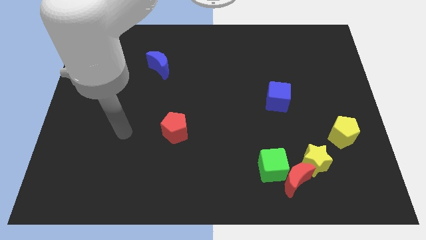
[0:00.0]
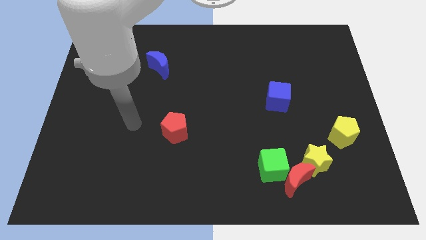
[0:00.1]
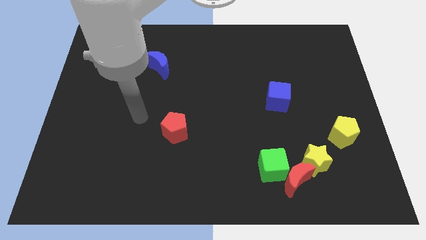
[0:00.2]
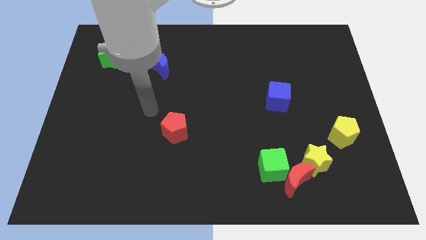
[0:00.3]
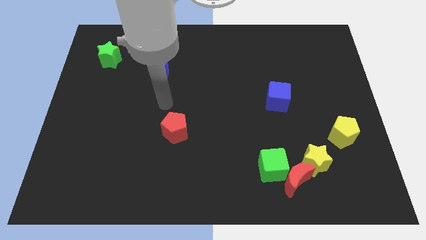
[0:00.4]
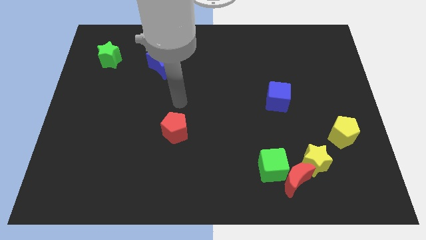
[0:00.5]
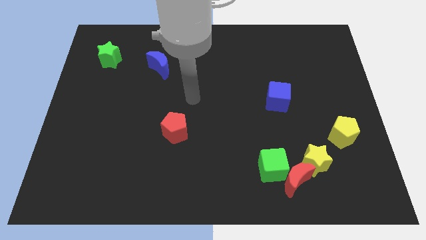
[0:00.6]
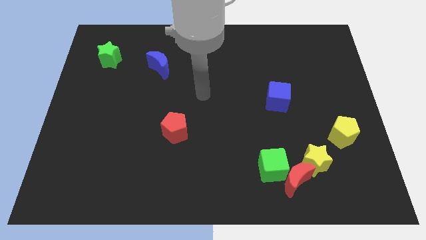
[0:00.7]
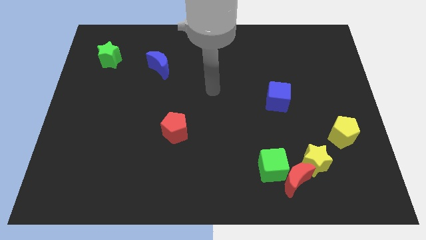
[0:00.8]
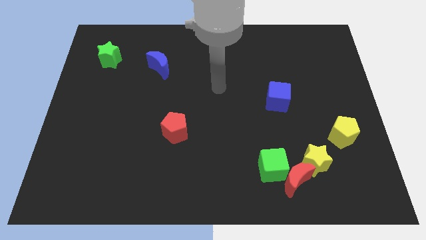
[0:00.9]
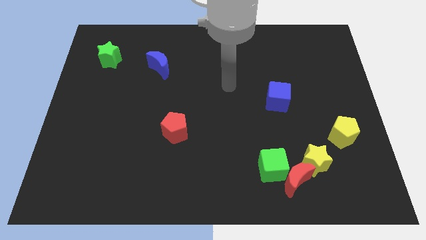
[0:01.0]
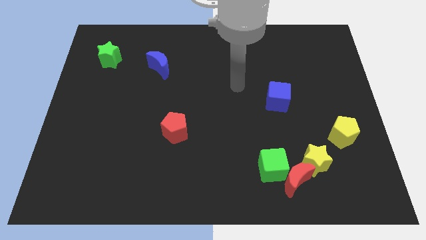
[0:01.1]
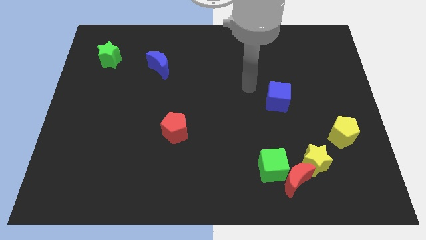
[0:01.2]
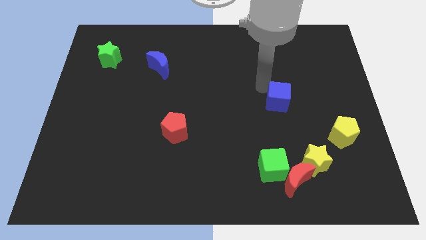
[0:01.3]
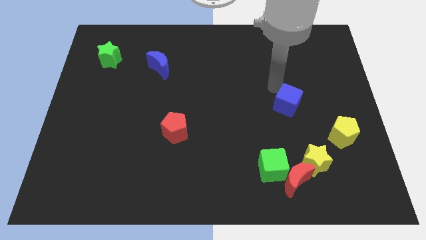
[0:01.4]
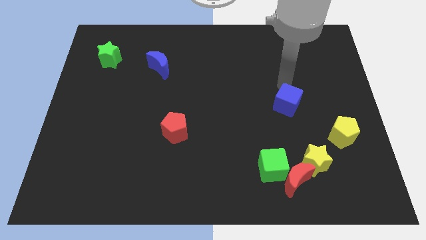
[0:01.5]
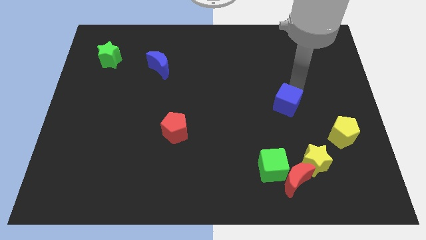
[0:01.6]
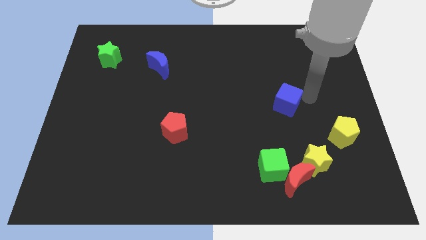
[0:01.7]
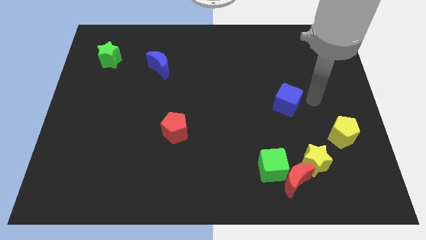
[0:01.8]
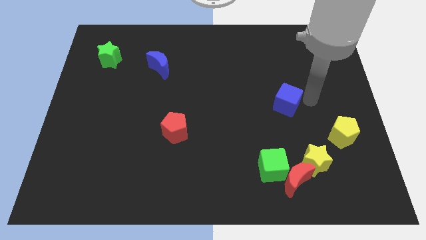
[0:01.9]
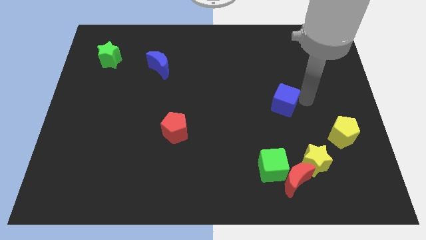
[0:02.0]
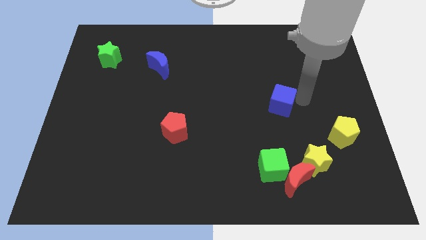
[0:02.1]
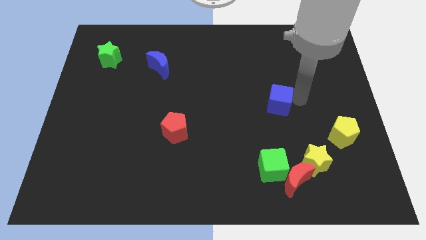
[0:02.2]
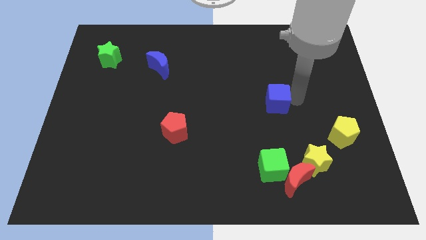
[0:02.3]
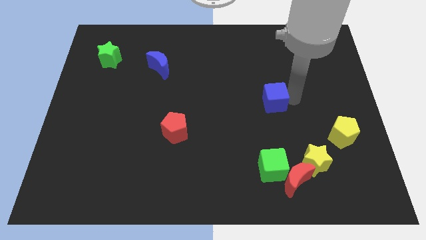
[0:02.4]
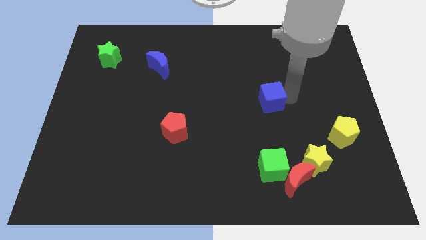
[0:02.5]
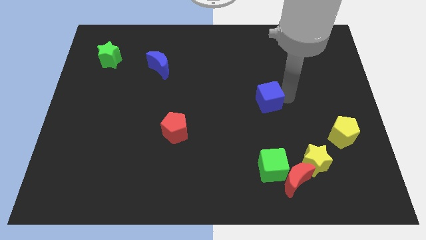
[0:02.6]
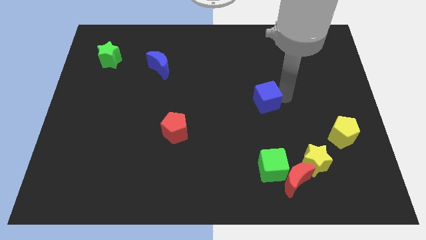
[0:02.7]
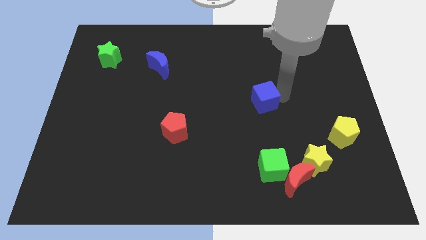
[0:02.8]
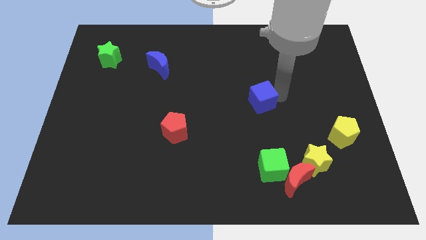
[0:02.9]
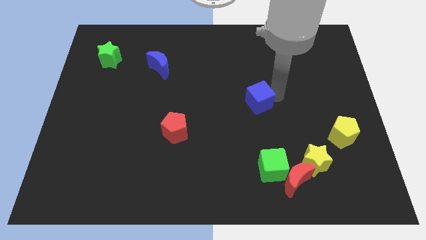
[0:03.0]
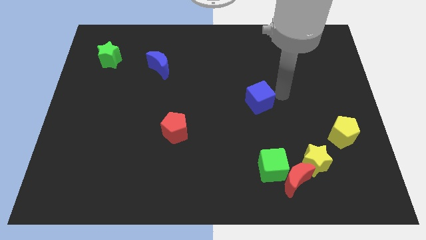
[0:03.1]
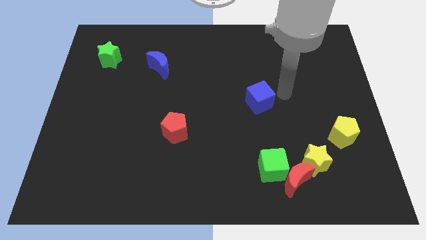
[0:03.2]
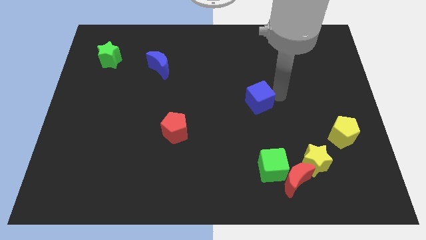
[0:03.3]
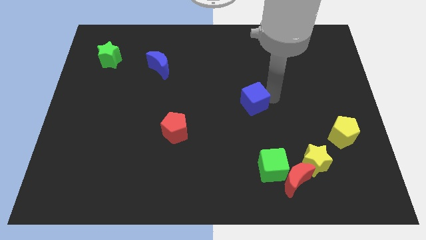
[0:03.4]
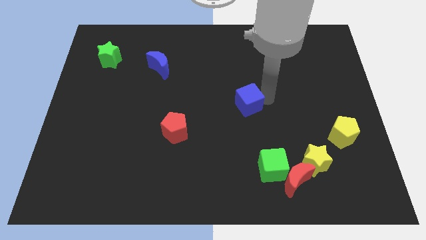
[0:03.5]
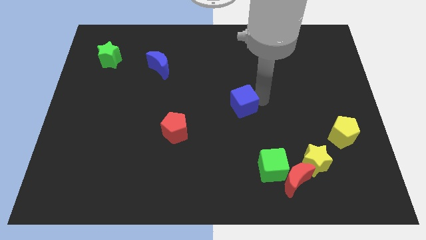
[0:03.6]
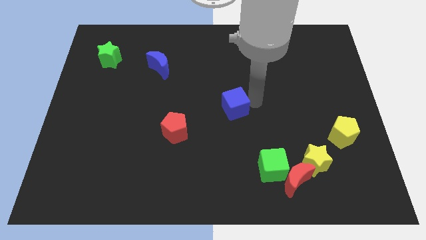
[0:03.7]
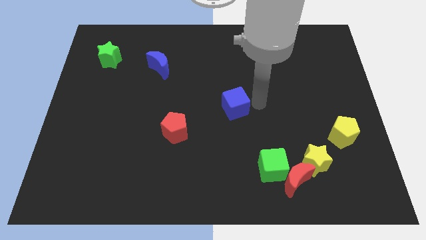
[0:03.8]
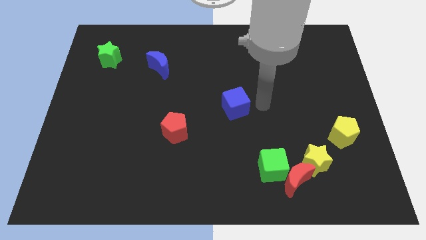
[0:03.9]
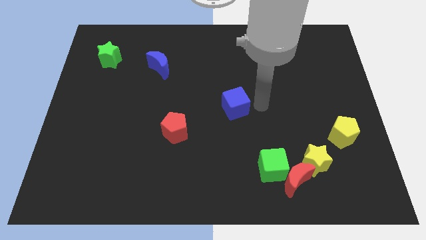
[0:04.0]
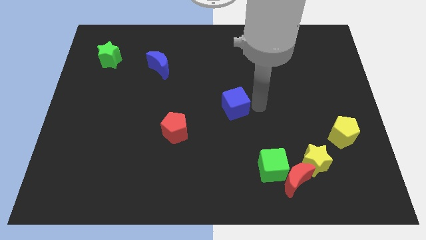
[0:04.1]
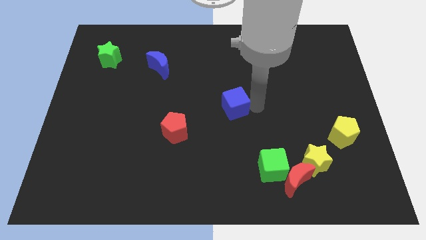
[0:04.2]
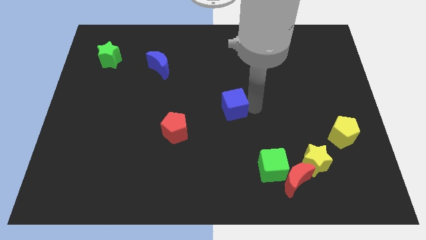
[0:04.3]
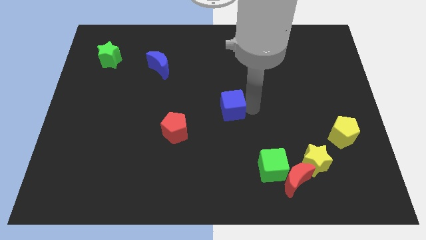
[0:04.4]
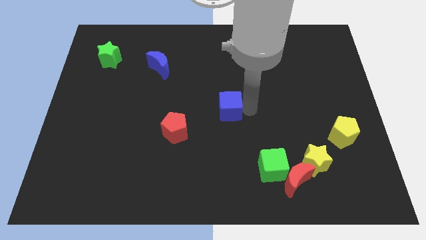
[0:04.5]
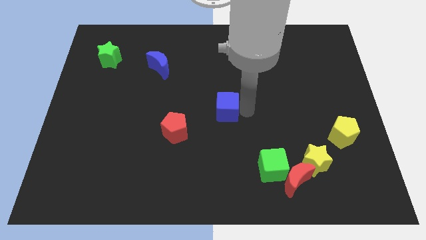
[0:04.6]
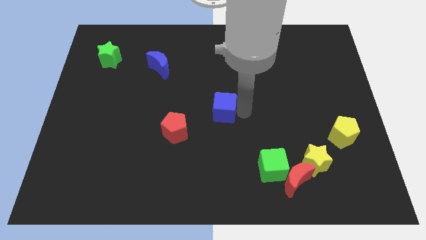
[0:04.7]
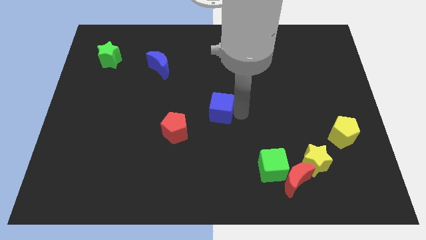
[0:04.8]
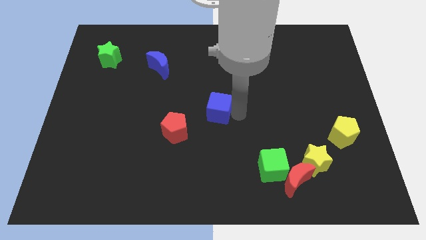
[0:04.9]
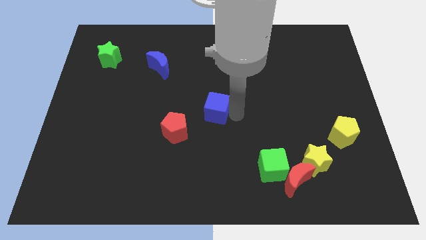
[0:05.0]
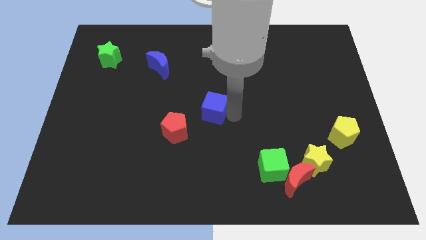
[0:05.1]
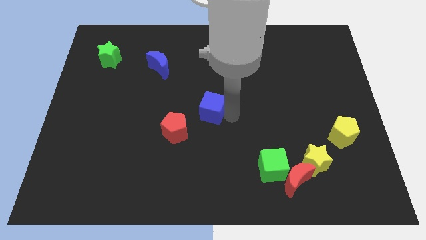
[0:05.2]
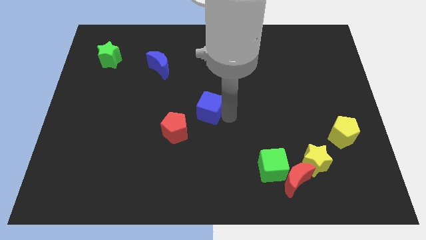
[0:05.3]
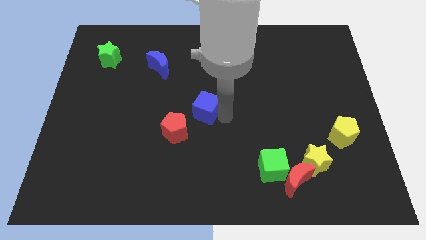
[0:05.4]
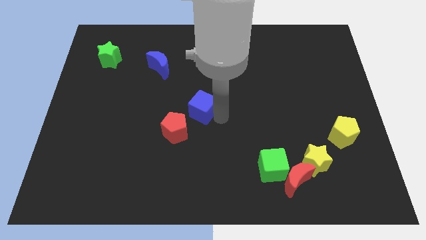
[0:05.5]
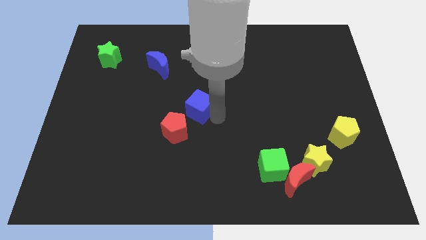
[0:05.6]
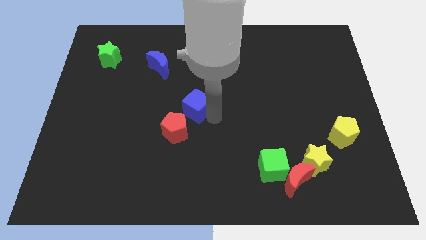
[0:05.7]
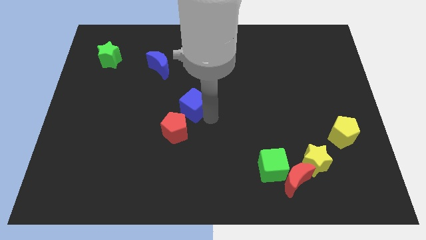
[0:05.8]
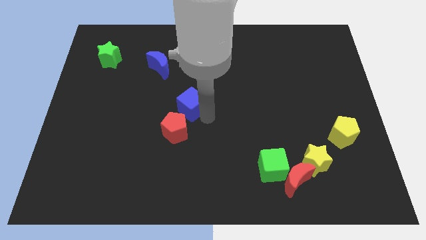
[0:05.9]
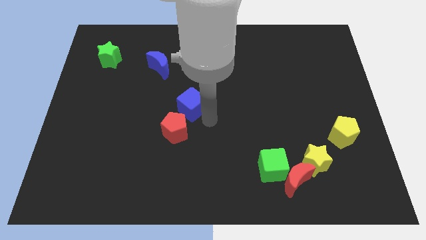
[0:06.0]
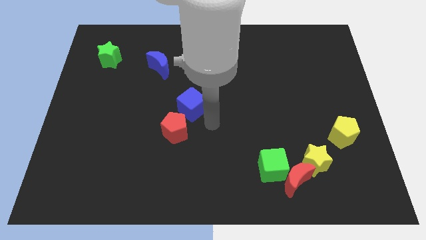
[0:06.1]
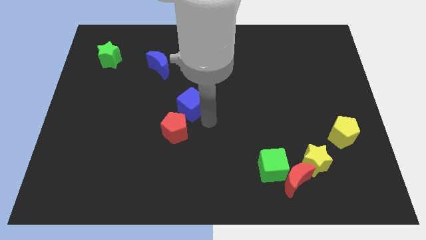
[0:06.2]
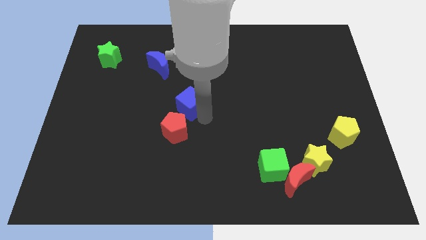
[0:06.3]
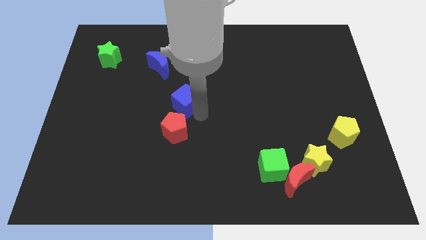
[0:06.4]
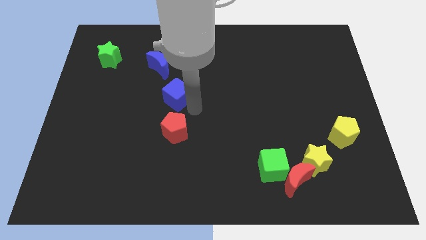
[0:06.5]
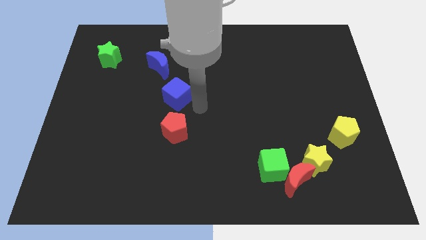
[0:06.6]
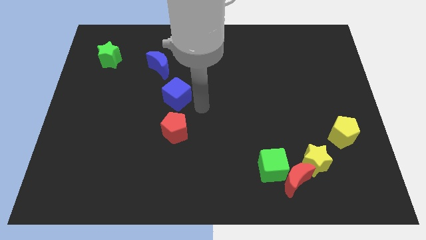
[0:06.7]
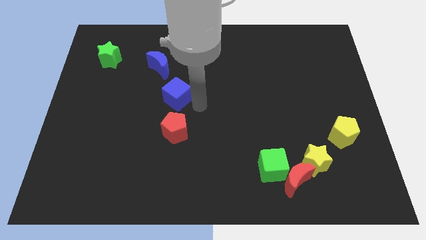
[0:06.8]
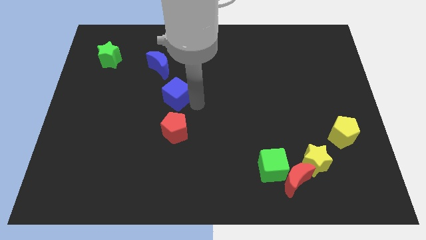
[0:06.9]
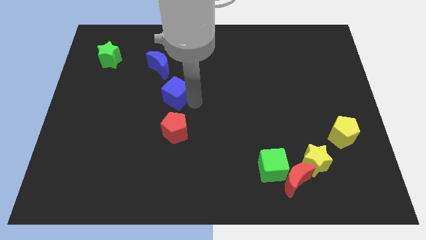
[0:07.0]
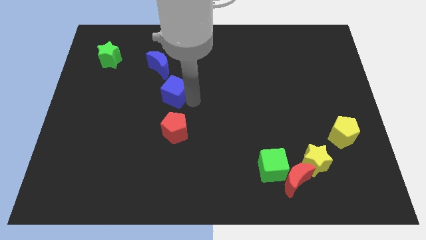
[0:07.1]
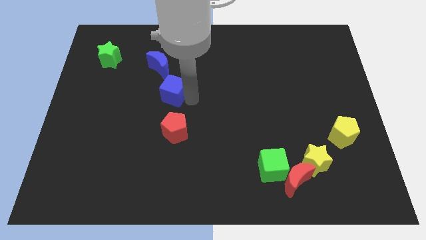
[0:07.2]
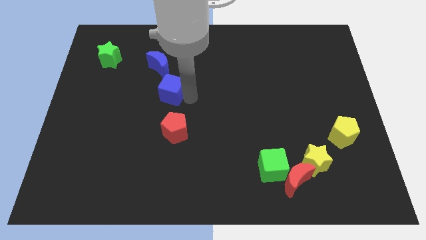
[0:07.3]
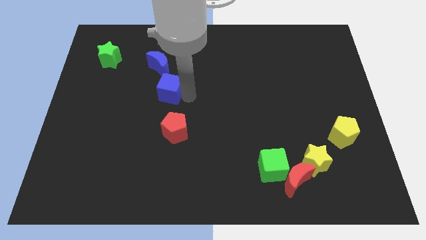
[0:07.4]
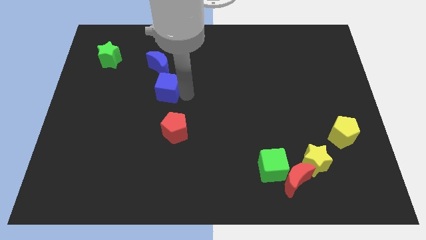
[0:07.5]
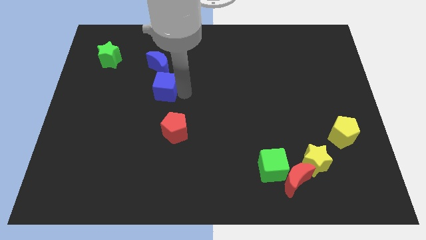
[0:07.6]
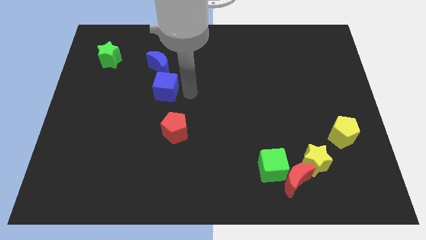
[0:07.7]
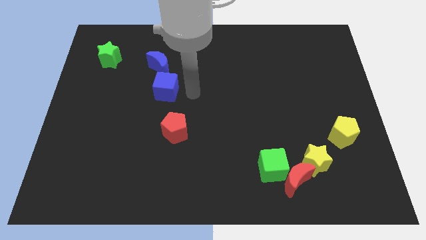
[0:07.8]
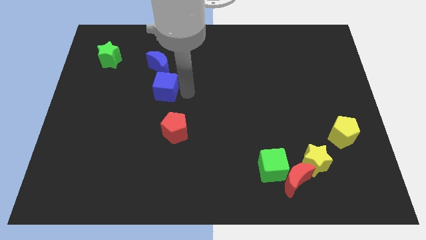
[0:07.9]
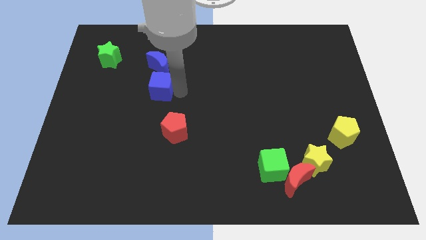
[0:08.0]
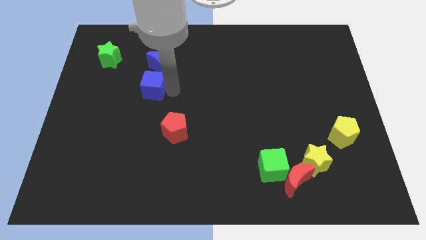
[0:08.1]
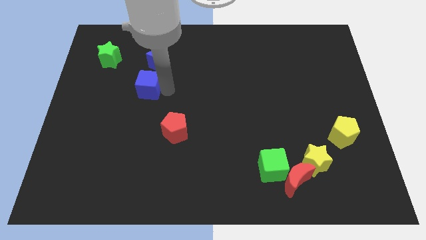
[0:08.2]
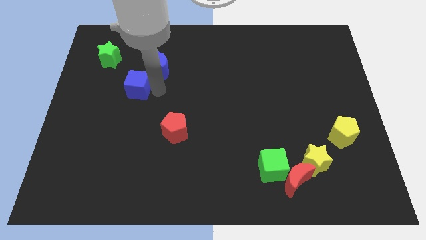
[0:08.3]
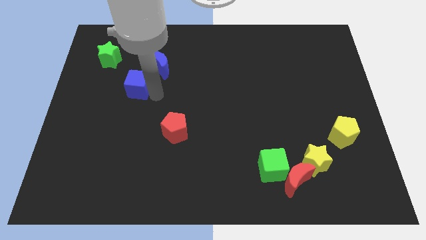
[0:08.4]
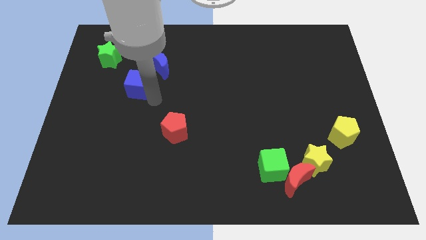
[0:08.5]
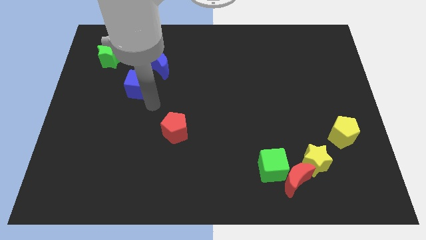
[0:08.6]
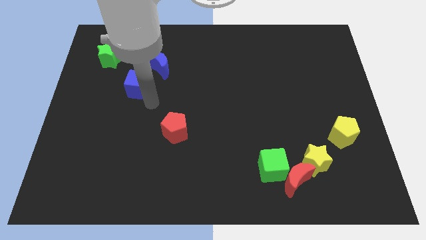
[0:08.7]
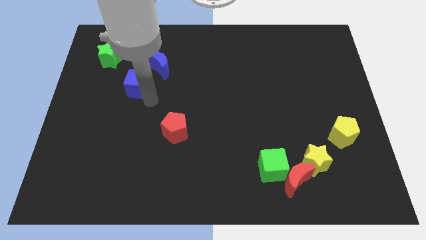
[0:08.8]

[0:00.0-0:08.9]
move the blue cube to the bottom right of the green star
